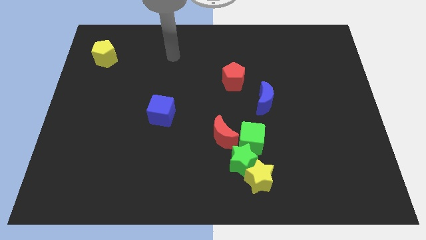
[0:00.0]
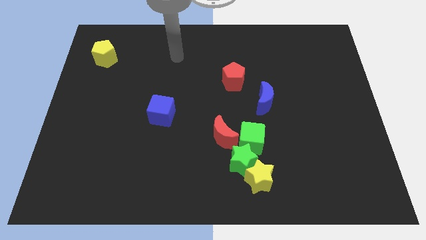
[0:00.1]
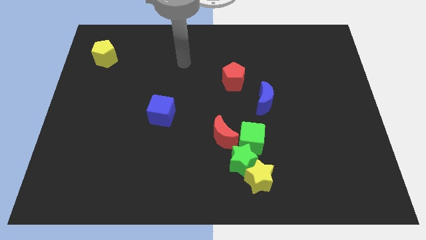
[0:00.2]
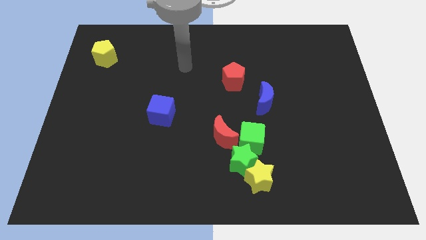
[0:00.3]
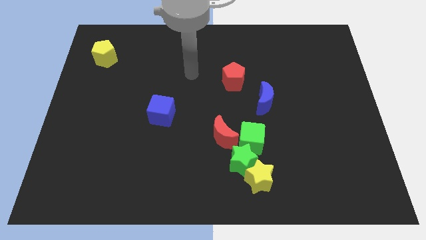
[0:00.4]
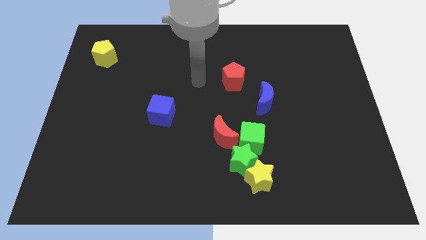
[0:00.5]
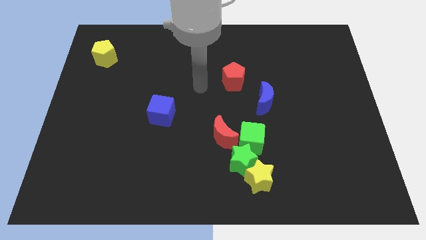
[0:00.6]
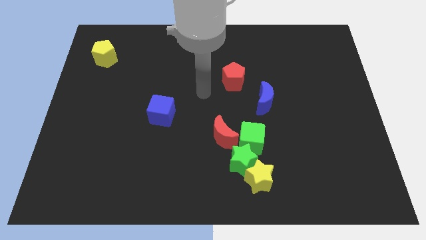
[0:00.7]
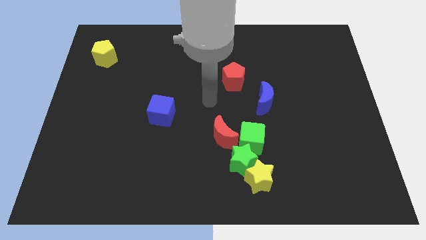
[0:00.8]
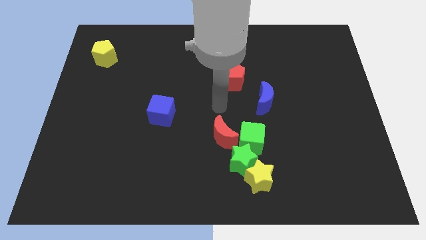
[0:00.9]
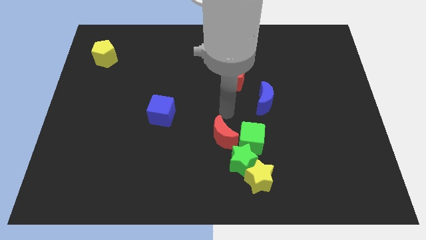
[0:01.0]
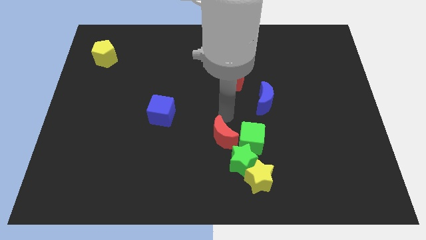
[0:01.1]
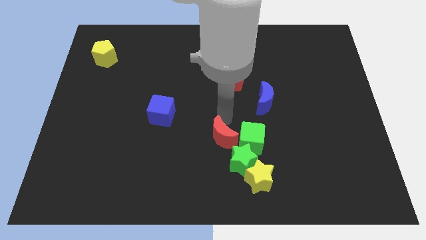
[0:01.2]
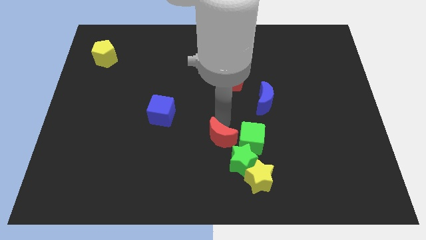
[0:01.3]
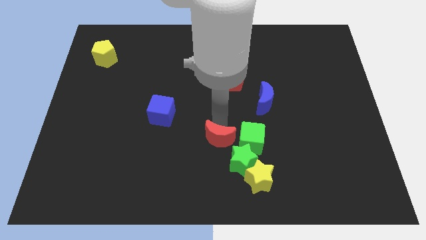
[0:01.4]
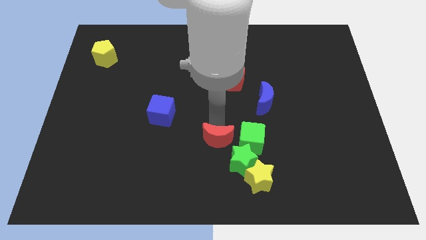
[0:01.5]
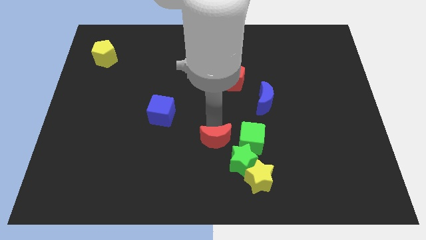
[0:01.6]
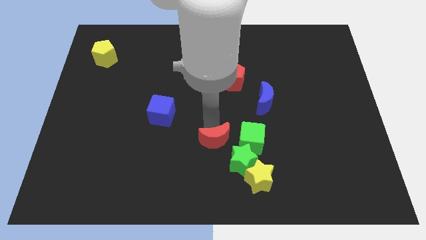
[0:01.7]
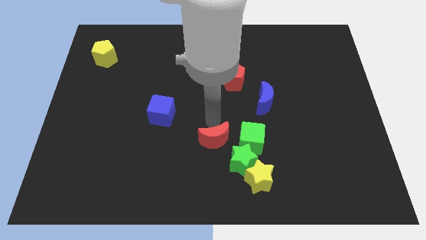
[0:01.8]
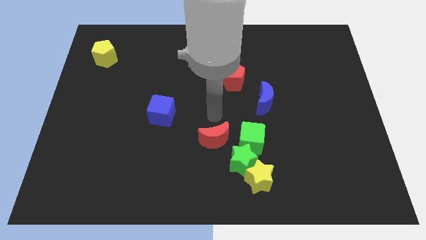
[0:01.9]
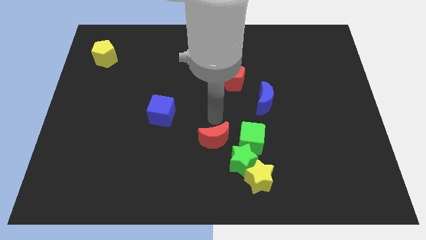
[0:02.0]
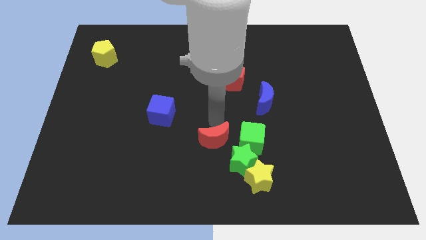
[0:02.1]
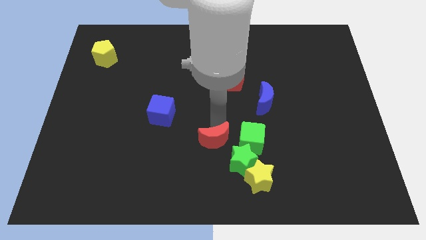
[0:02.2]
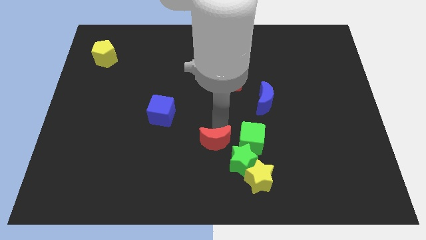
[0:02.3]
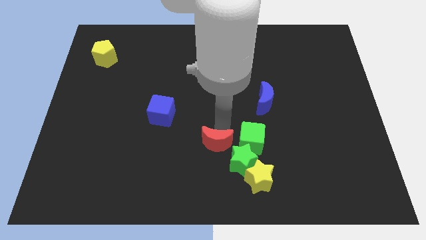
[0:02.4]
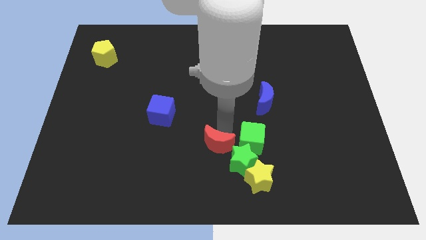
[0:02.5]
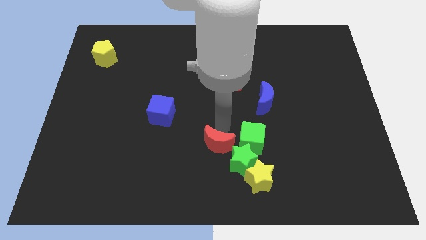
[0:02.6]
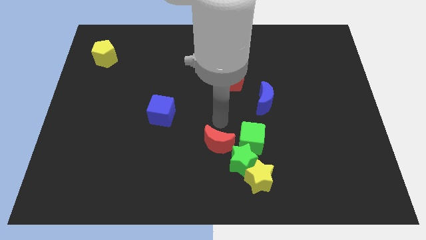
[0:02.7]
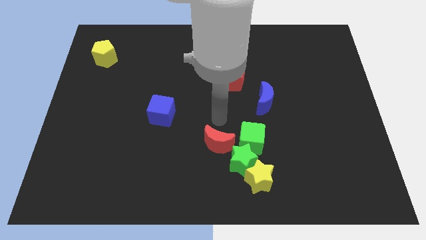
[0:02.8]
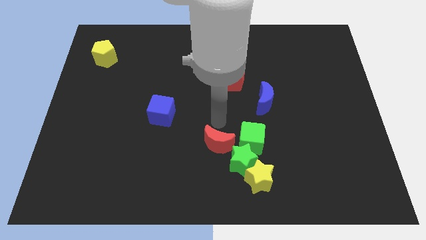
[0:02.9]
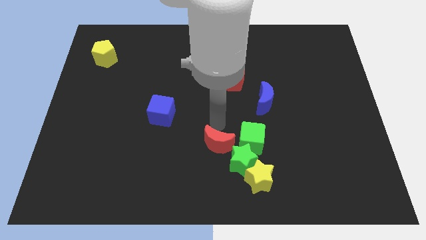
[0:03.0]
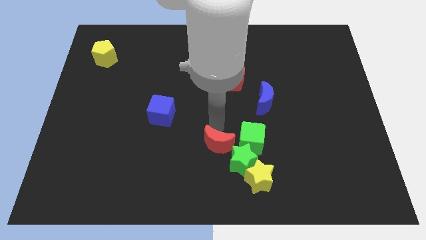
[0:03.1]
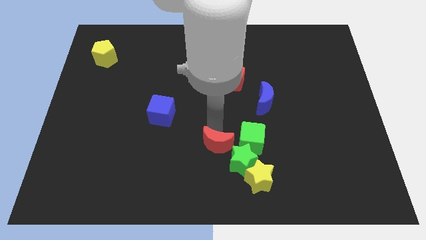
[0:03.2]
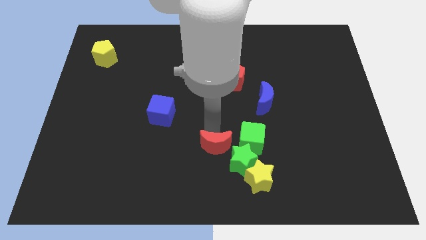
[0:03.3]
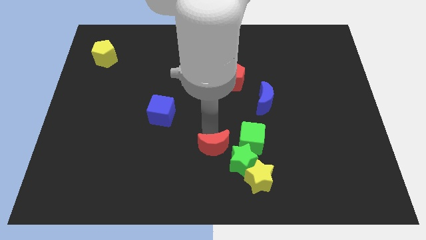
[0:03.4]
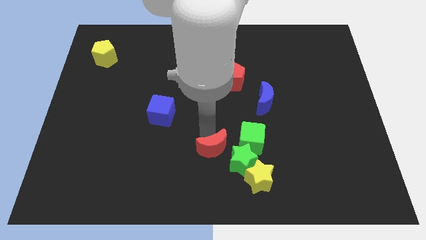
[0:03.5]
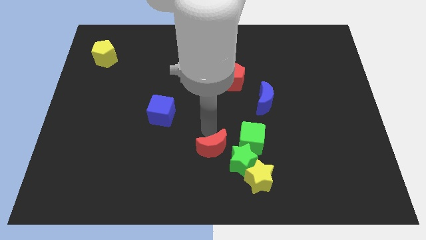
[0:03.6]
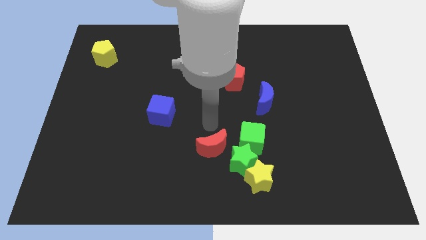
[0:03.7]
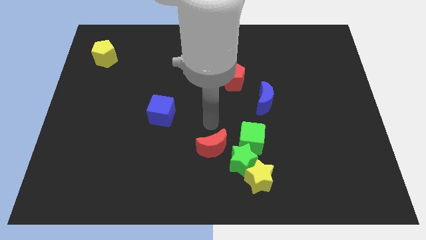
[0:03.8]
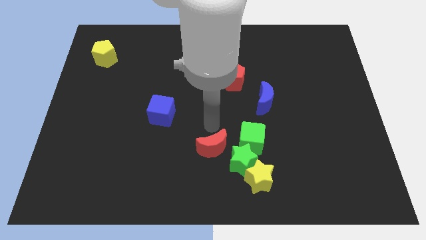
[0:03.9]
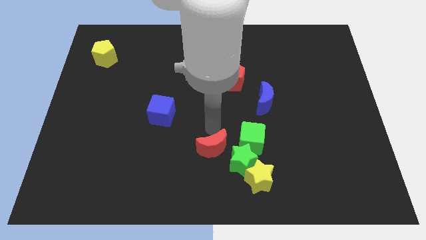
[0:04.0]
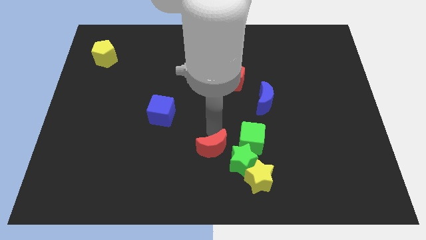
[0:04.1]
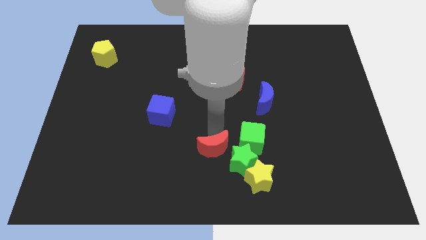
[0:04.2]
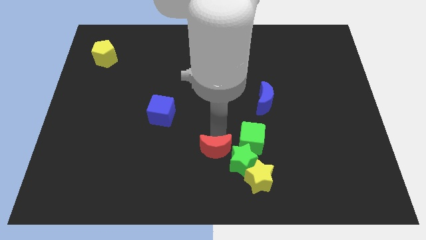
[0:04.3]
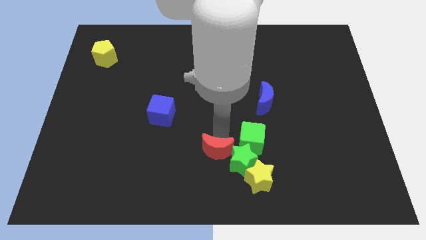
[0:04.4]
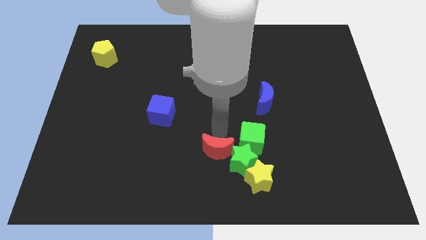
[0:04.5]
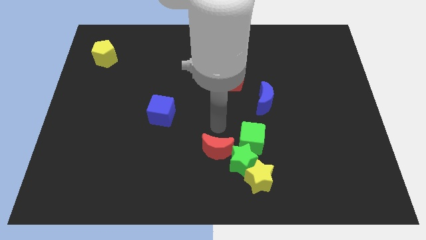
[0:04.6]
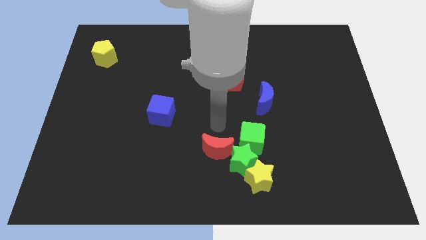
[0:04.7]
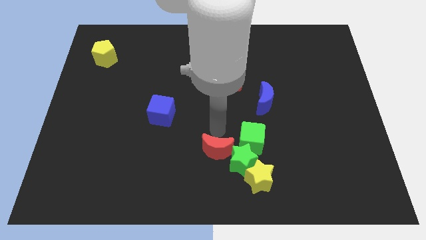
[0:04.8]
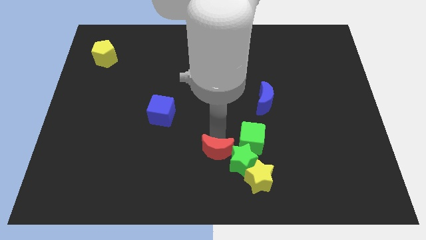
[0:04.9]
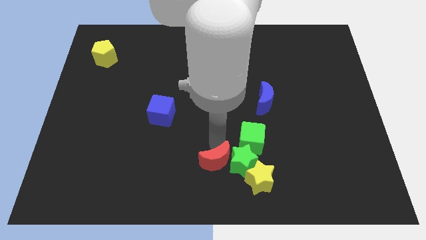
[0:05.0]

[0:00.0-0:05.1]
push the red moon to the bottom side

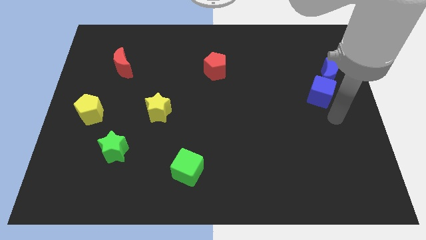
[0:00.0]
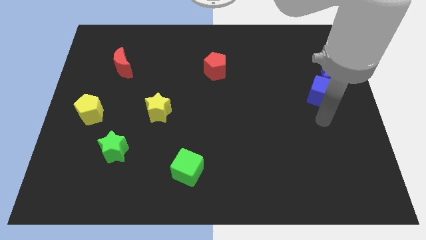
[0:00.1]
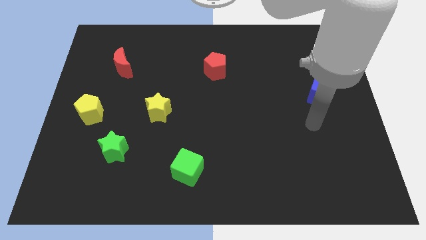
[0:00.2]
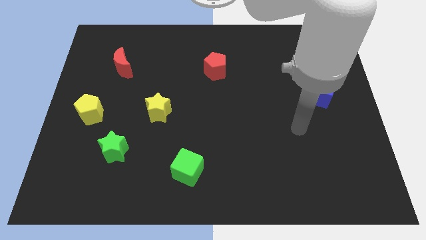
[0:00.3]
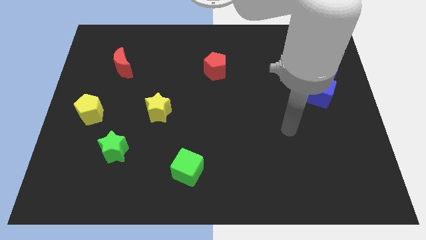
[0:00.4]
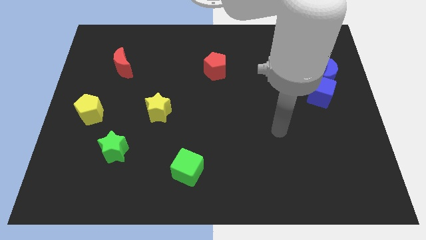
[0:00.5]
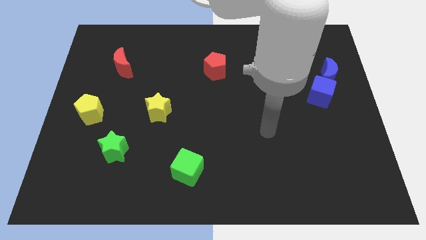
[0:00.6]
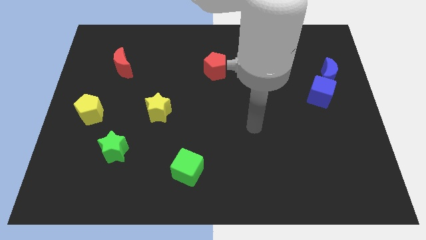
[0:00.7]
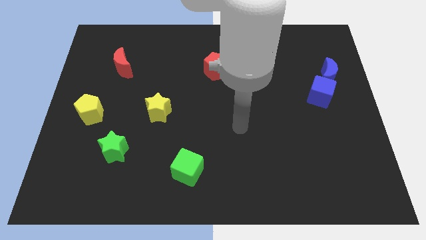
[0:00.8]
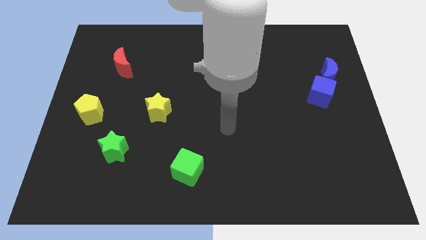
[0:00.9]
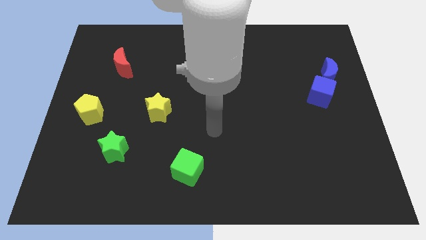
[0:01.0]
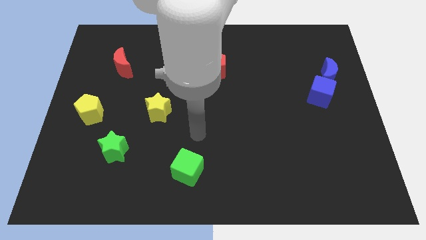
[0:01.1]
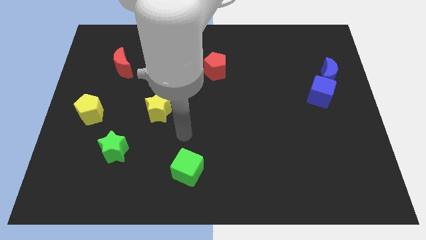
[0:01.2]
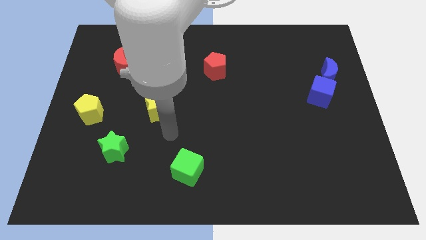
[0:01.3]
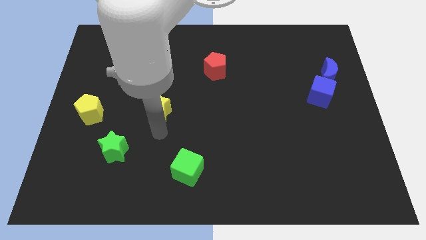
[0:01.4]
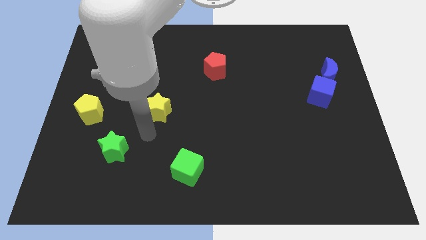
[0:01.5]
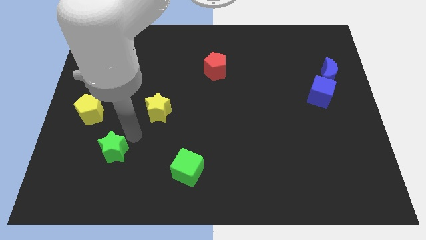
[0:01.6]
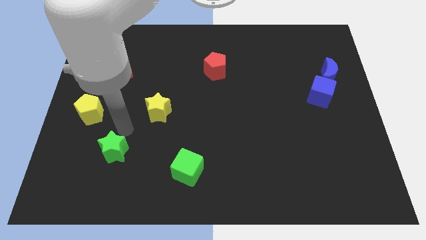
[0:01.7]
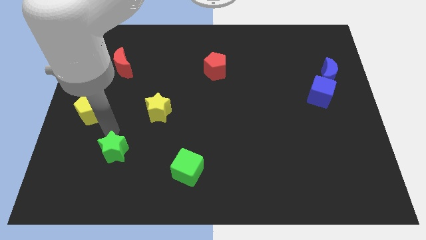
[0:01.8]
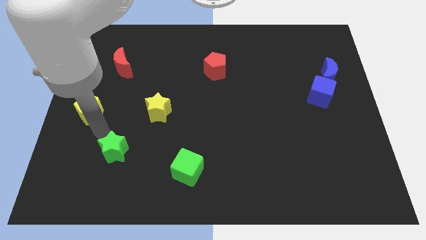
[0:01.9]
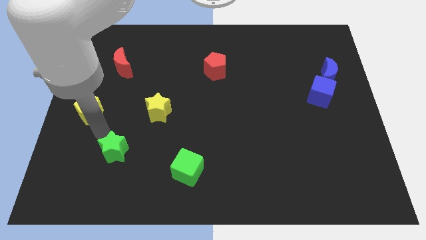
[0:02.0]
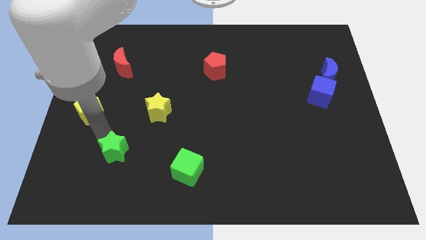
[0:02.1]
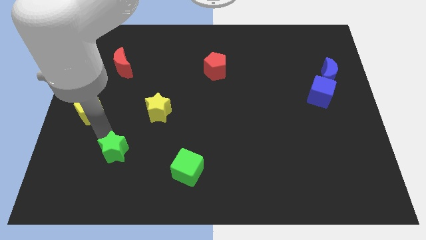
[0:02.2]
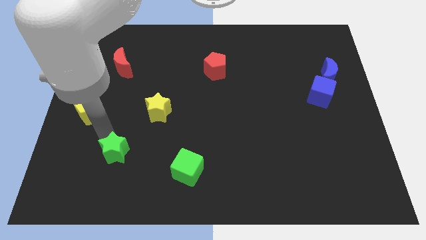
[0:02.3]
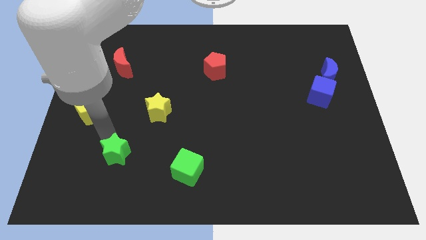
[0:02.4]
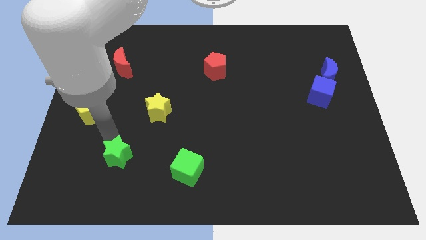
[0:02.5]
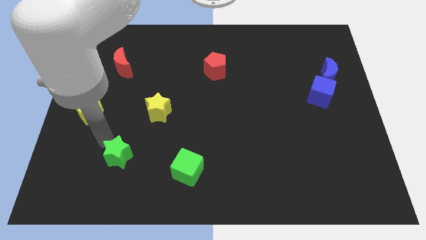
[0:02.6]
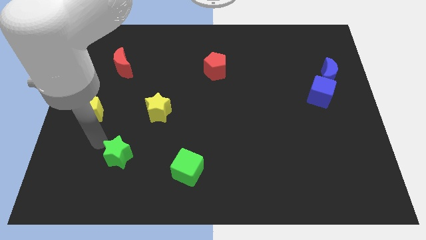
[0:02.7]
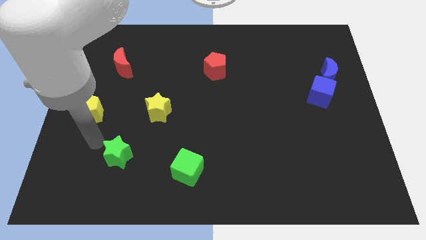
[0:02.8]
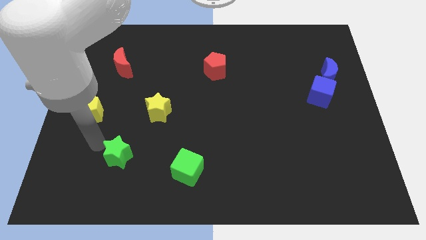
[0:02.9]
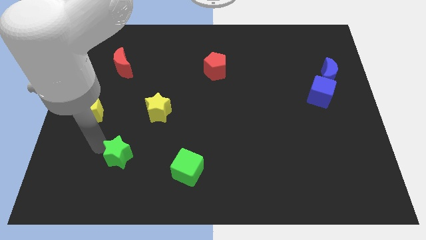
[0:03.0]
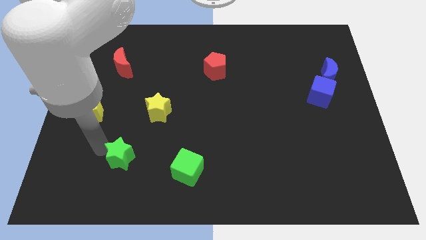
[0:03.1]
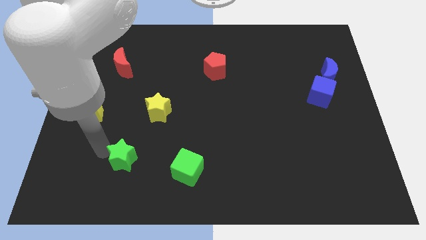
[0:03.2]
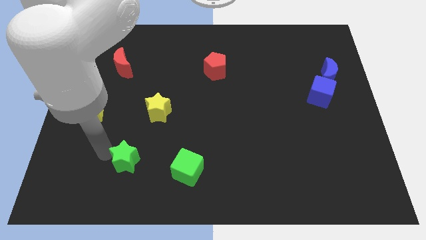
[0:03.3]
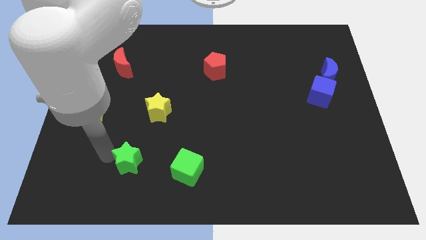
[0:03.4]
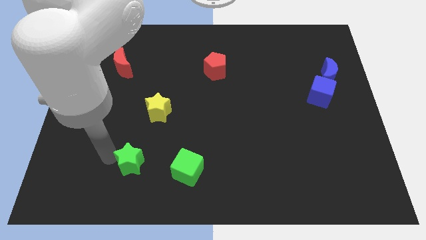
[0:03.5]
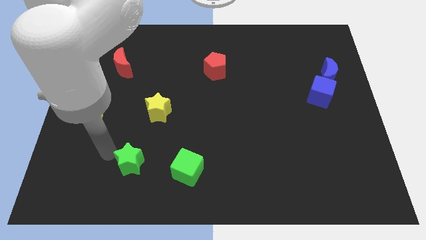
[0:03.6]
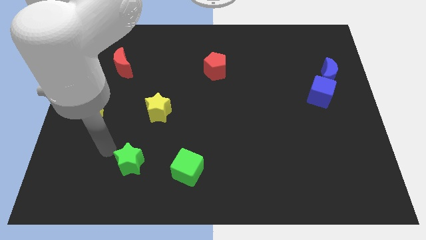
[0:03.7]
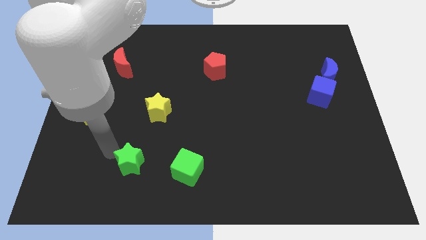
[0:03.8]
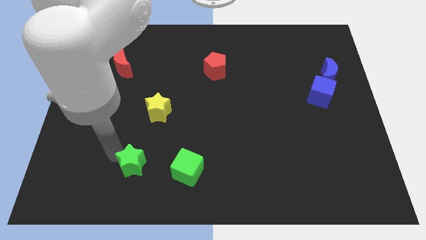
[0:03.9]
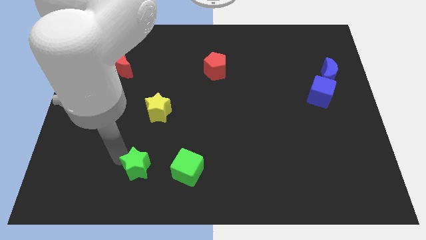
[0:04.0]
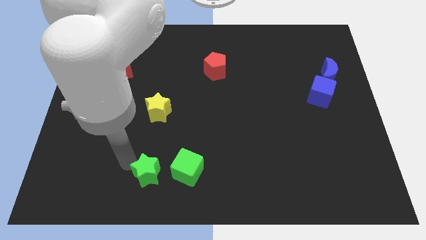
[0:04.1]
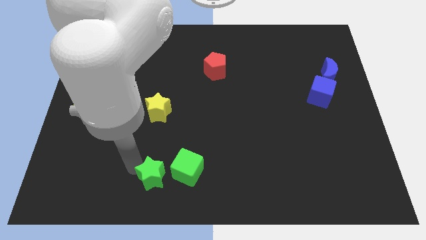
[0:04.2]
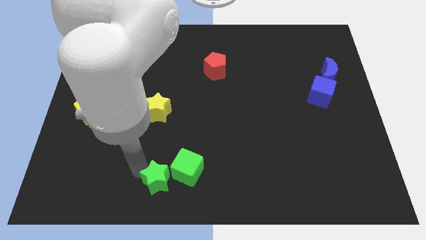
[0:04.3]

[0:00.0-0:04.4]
put the green star to the bottom side
